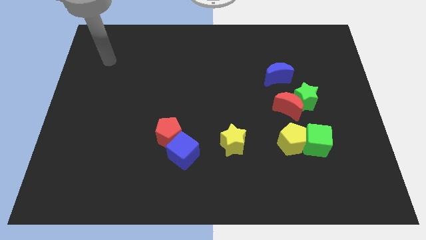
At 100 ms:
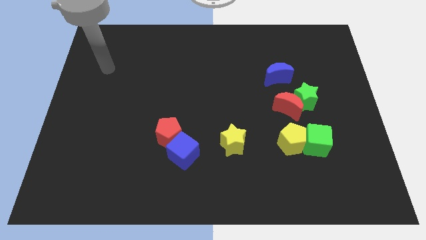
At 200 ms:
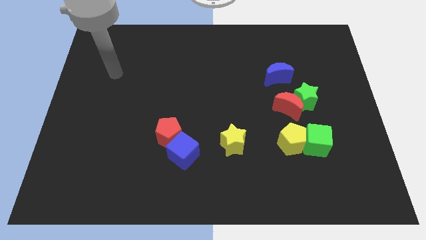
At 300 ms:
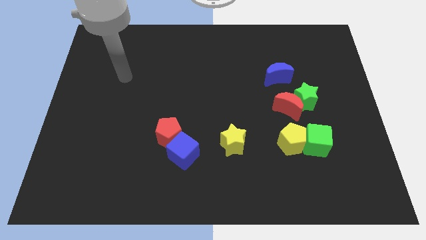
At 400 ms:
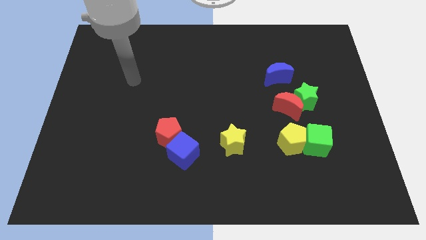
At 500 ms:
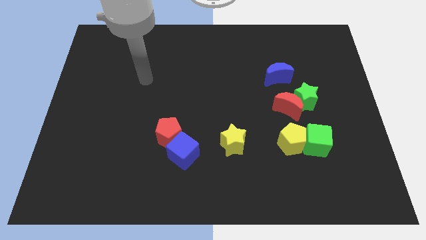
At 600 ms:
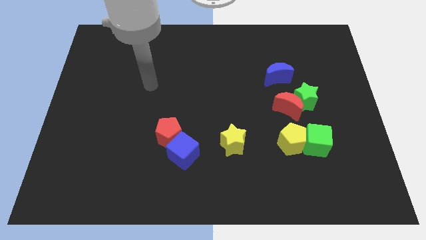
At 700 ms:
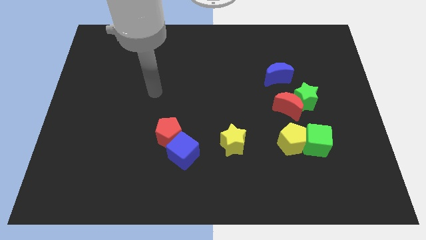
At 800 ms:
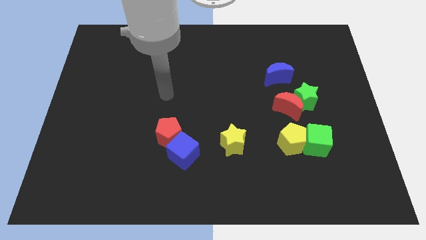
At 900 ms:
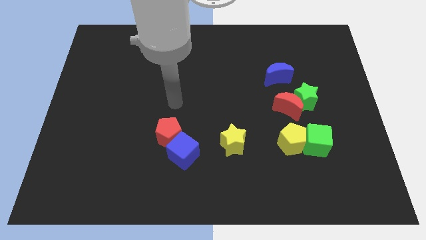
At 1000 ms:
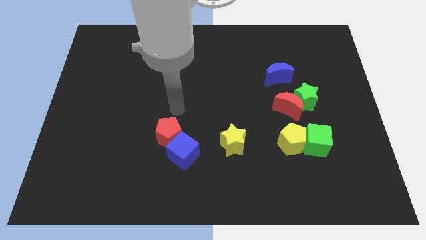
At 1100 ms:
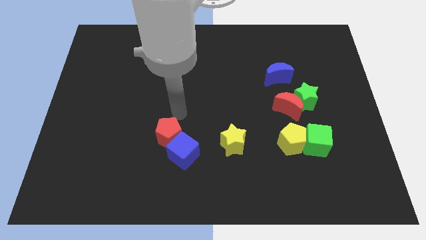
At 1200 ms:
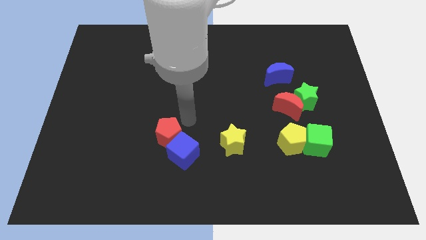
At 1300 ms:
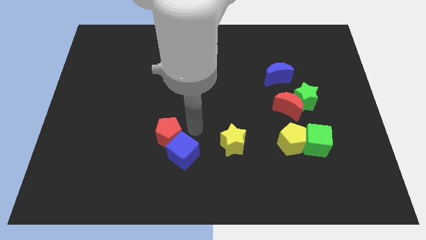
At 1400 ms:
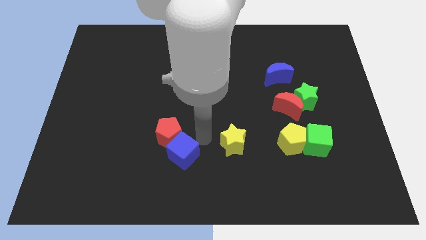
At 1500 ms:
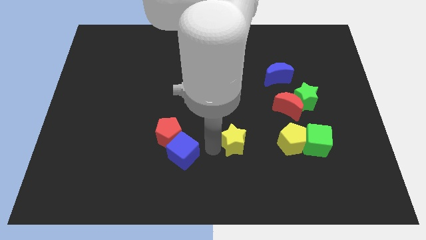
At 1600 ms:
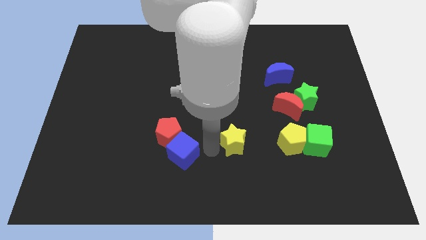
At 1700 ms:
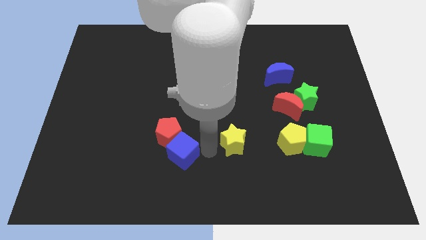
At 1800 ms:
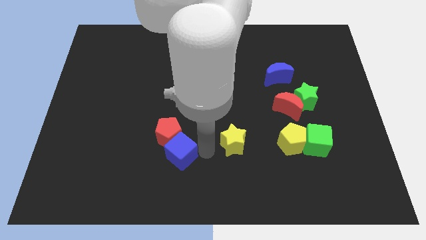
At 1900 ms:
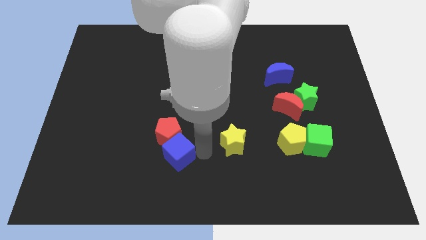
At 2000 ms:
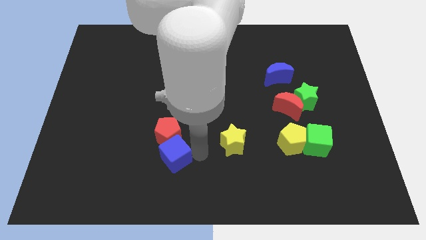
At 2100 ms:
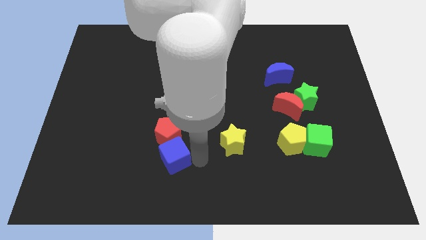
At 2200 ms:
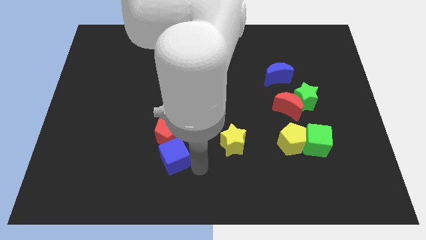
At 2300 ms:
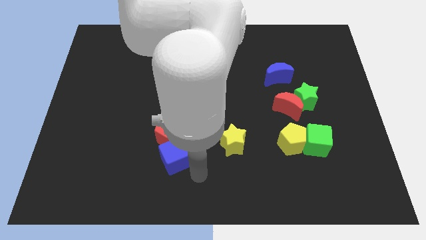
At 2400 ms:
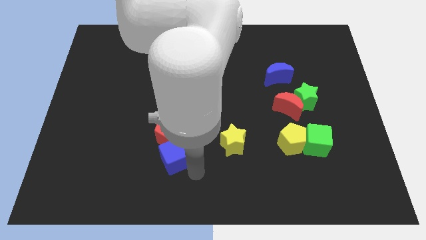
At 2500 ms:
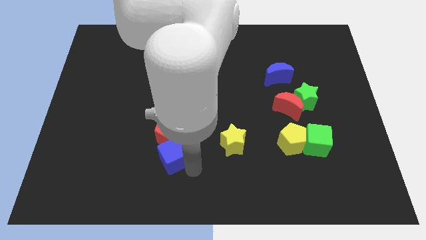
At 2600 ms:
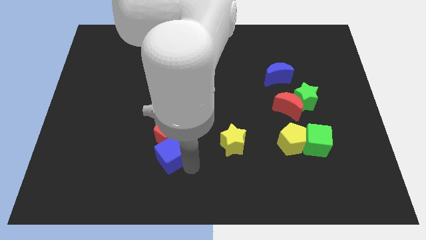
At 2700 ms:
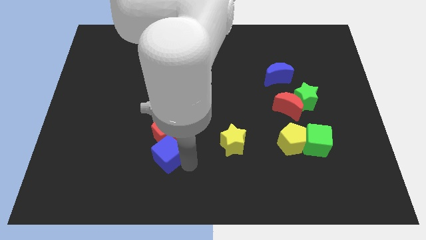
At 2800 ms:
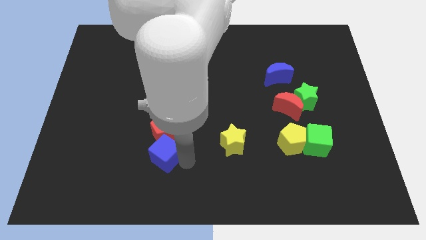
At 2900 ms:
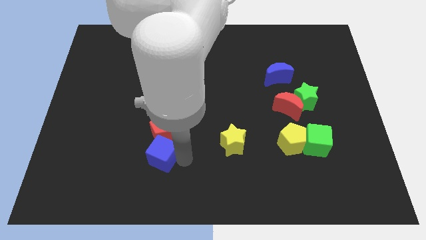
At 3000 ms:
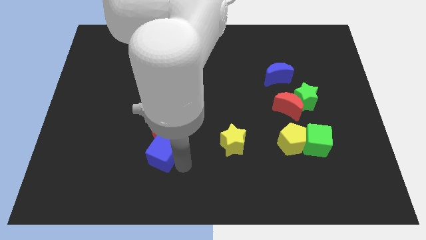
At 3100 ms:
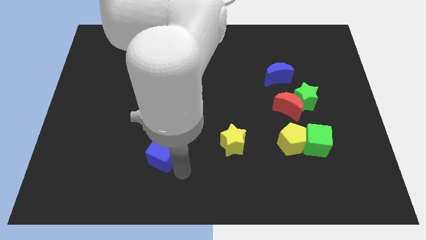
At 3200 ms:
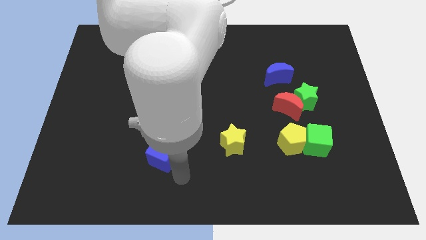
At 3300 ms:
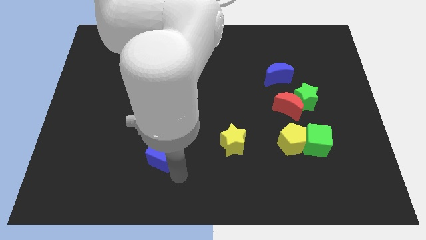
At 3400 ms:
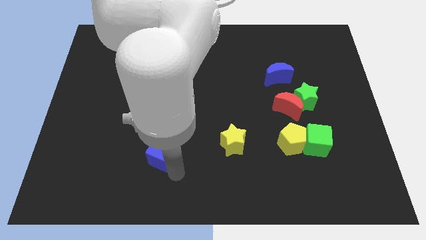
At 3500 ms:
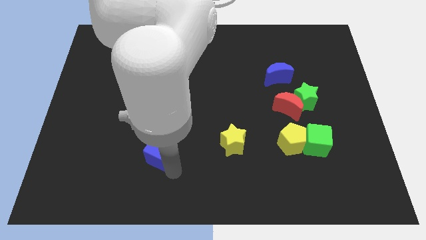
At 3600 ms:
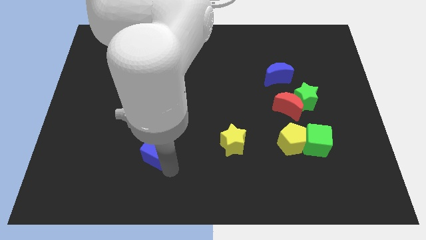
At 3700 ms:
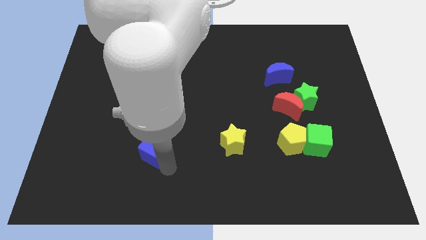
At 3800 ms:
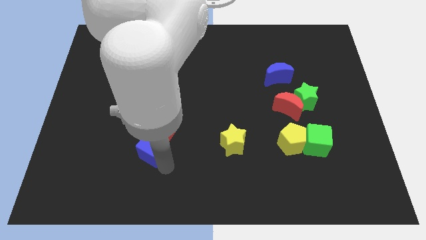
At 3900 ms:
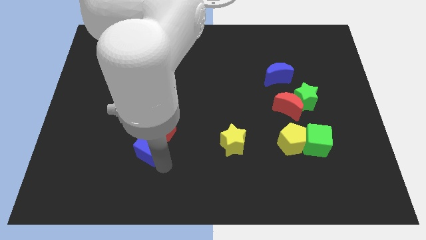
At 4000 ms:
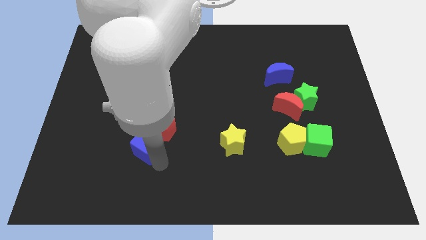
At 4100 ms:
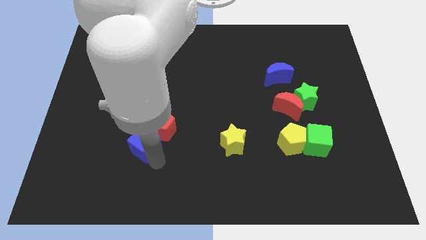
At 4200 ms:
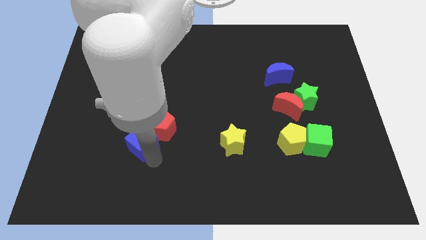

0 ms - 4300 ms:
move the blue cube a little bit up and left diagonally

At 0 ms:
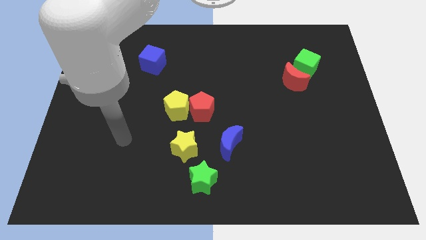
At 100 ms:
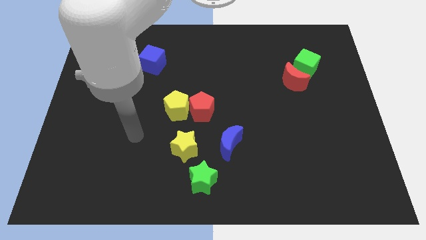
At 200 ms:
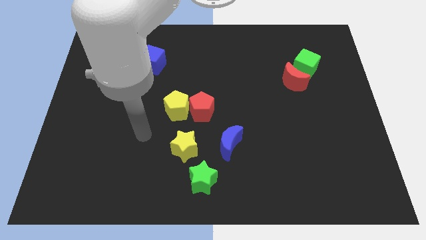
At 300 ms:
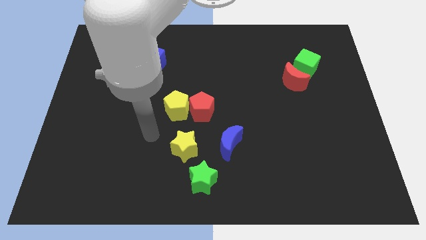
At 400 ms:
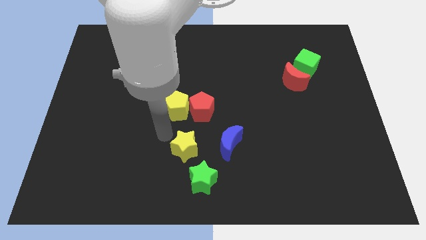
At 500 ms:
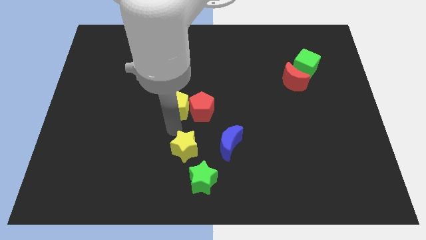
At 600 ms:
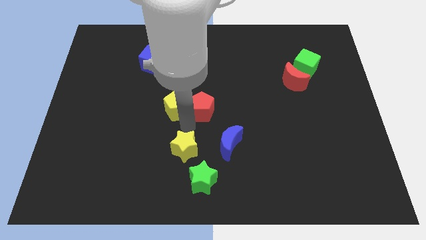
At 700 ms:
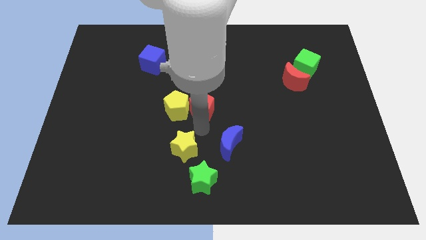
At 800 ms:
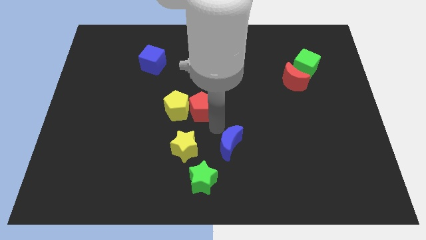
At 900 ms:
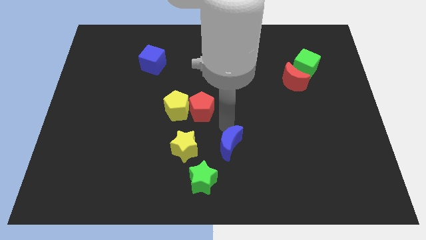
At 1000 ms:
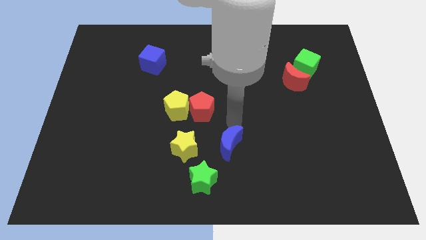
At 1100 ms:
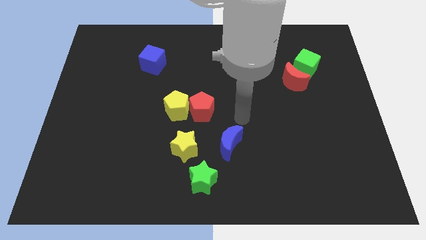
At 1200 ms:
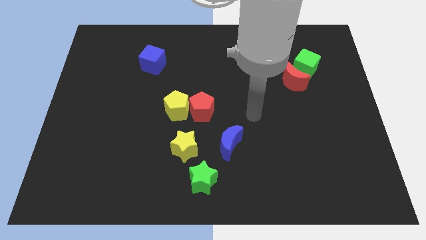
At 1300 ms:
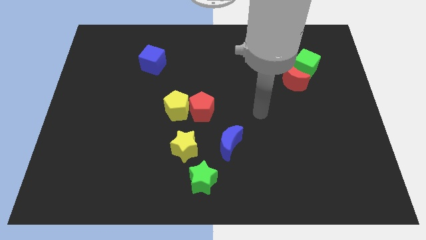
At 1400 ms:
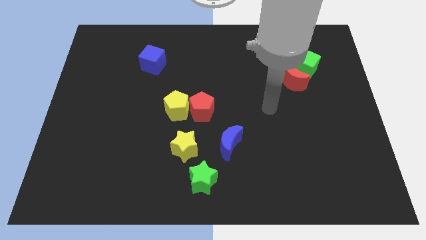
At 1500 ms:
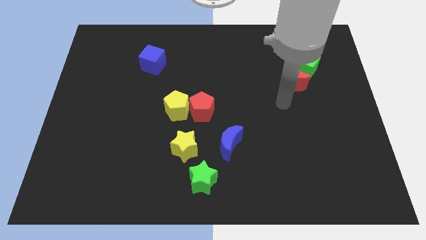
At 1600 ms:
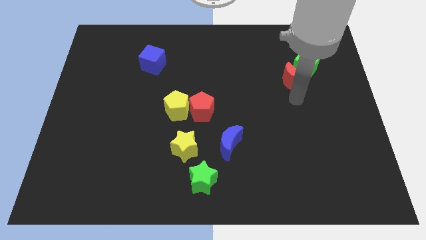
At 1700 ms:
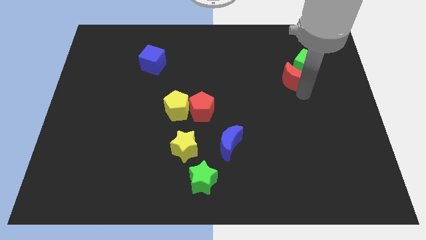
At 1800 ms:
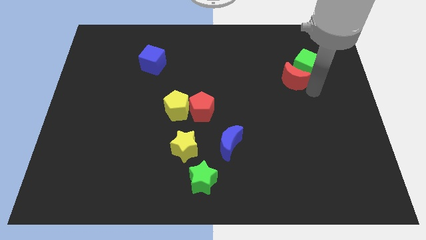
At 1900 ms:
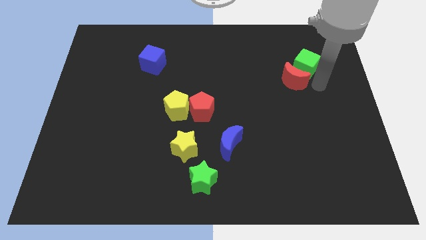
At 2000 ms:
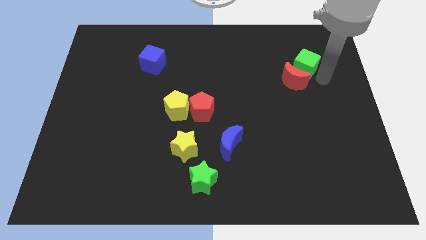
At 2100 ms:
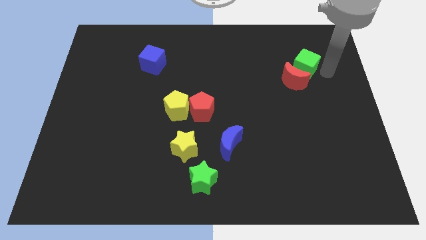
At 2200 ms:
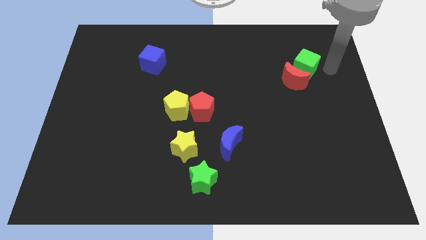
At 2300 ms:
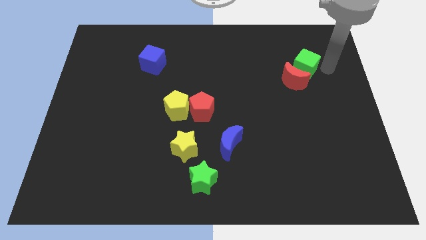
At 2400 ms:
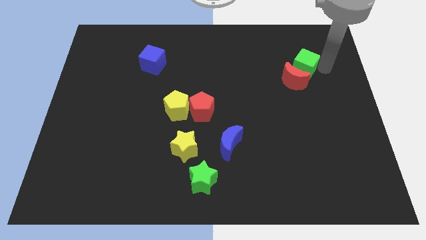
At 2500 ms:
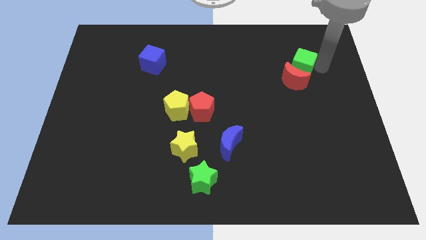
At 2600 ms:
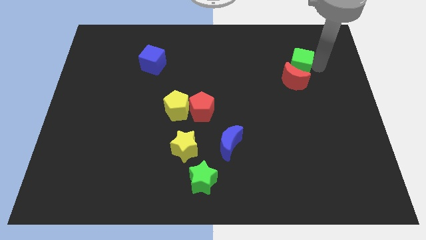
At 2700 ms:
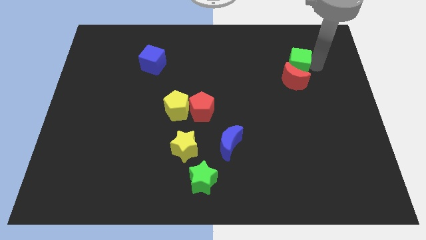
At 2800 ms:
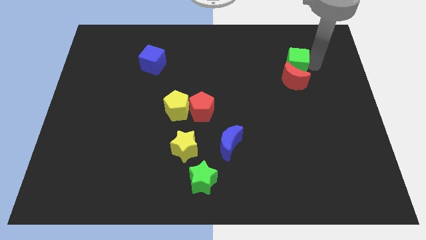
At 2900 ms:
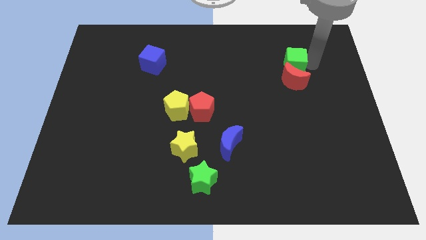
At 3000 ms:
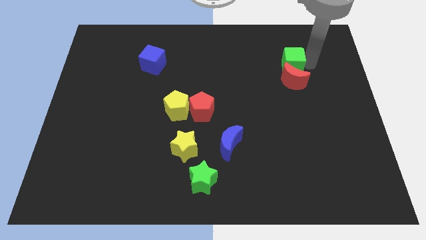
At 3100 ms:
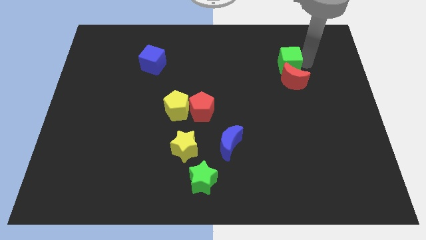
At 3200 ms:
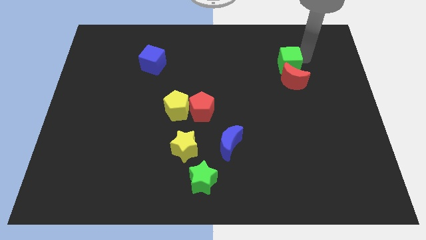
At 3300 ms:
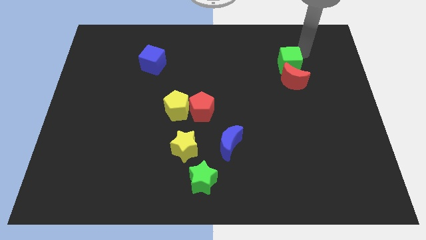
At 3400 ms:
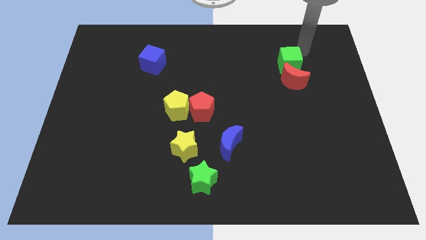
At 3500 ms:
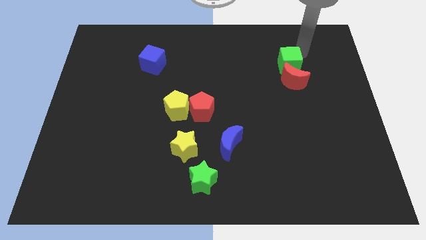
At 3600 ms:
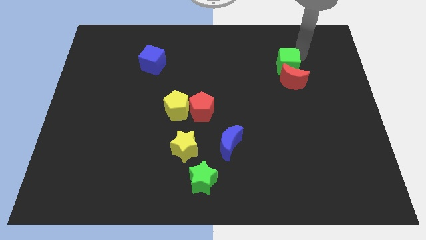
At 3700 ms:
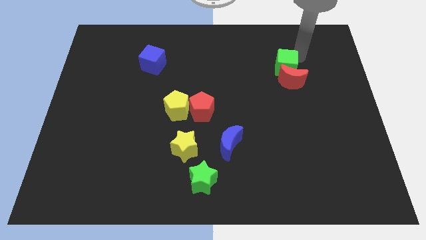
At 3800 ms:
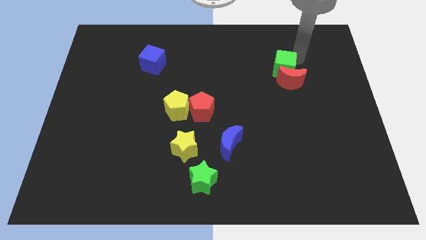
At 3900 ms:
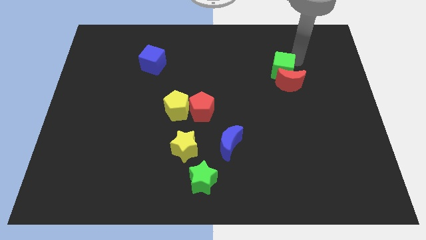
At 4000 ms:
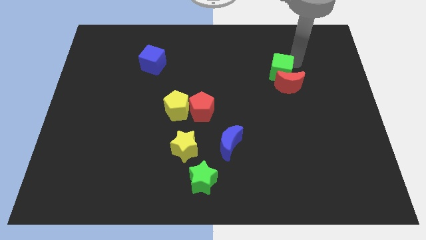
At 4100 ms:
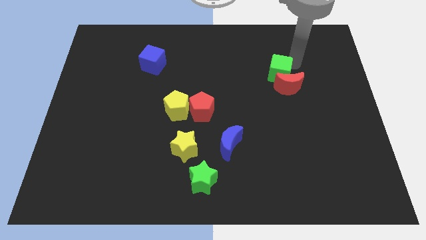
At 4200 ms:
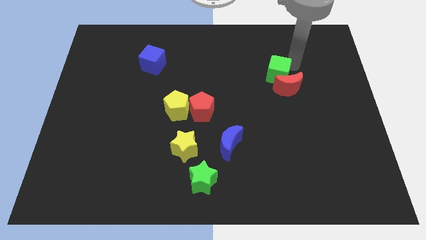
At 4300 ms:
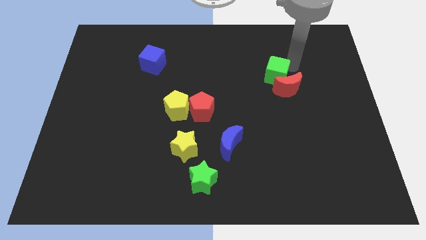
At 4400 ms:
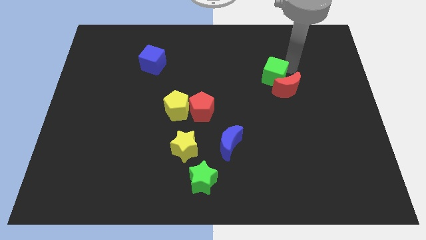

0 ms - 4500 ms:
push the green cube downwards and to the left a little bit
